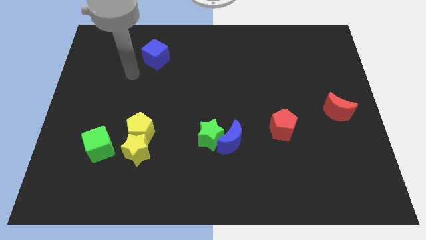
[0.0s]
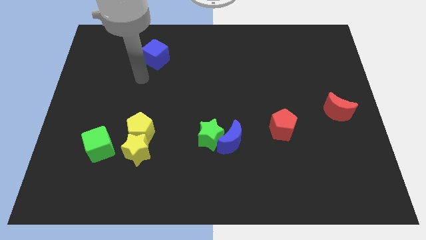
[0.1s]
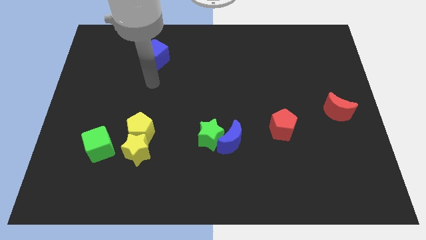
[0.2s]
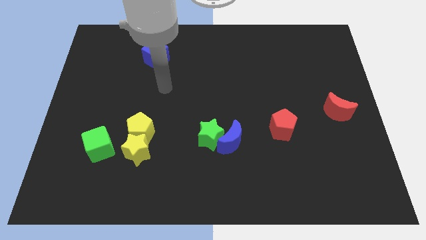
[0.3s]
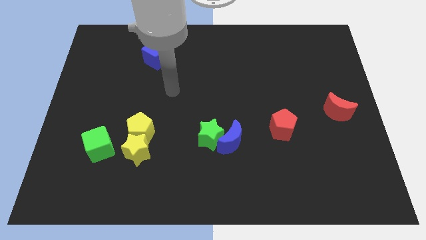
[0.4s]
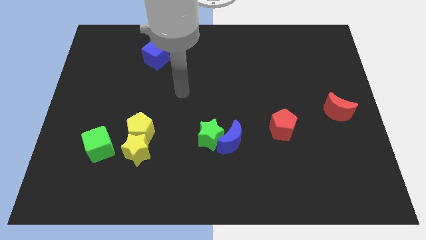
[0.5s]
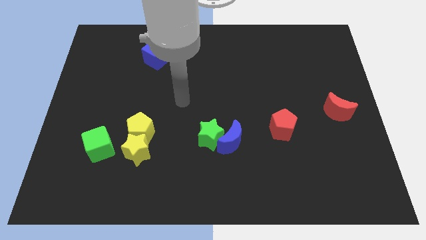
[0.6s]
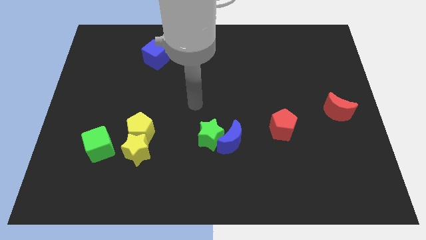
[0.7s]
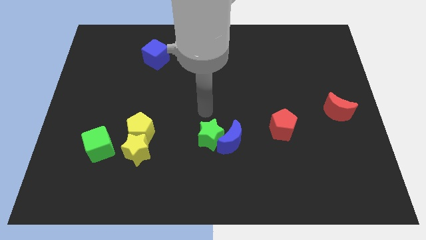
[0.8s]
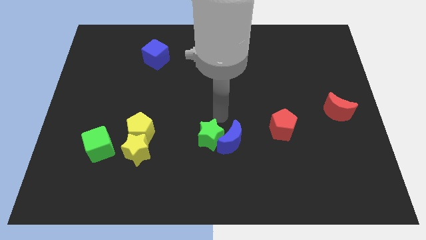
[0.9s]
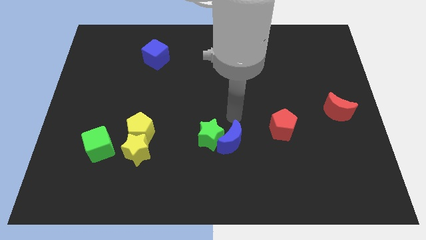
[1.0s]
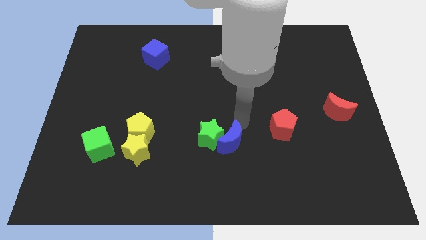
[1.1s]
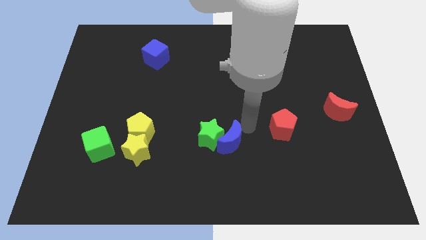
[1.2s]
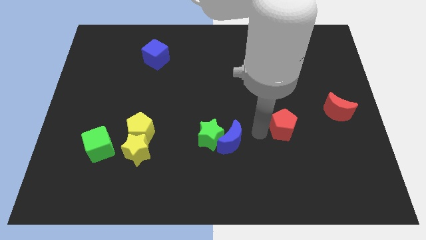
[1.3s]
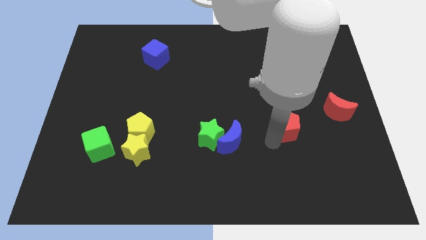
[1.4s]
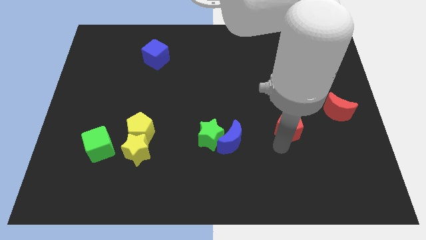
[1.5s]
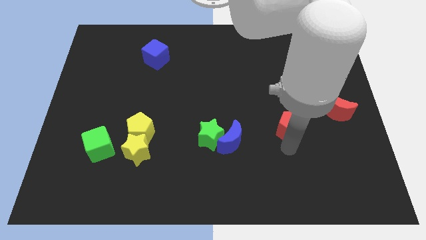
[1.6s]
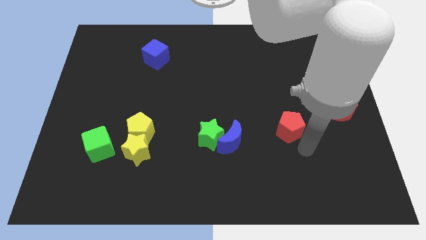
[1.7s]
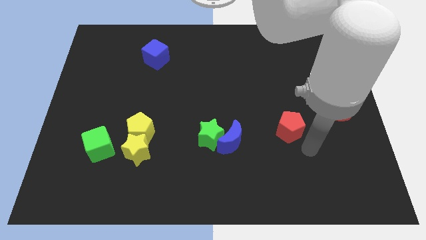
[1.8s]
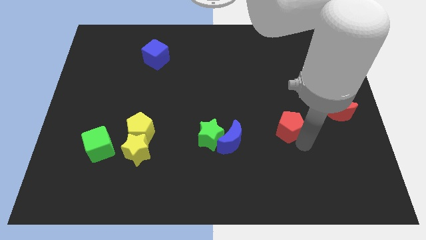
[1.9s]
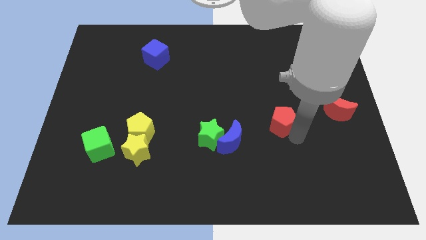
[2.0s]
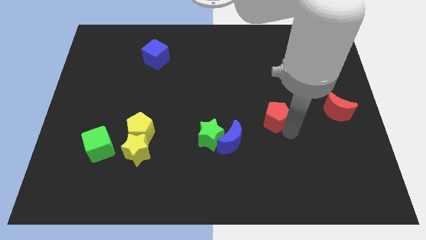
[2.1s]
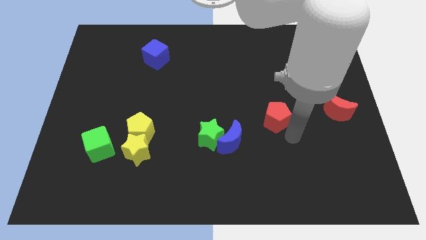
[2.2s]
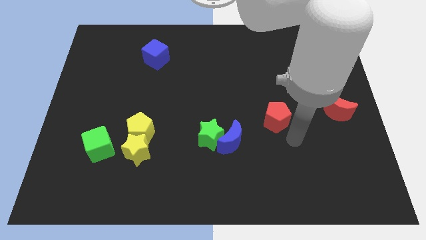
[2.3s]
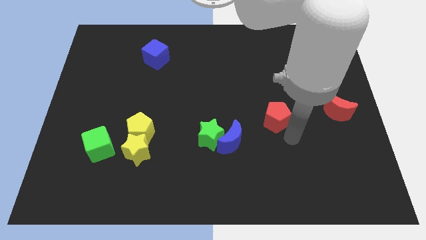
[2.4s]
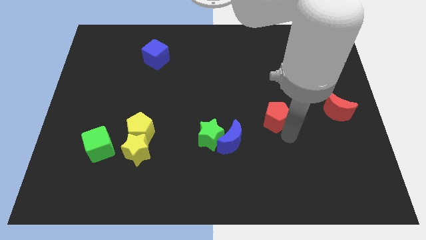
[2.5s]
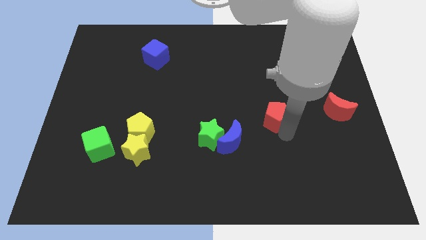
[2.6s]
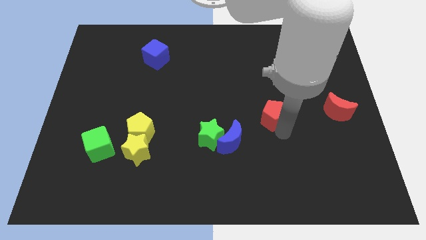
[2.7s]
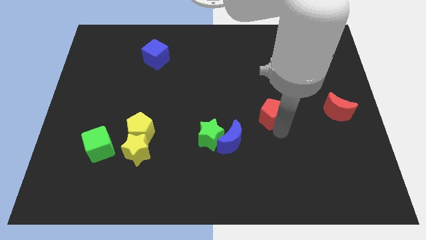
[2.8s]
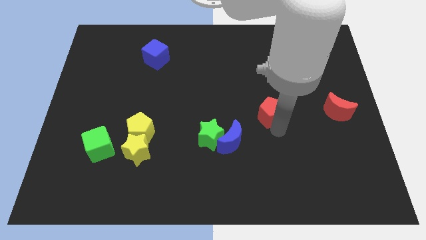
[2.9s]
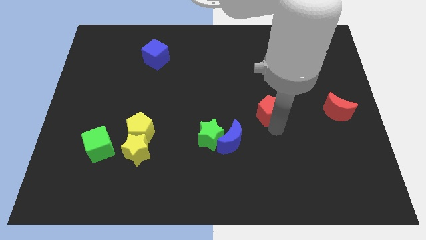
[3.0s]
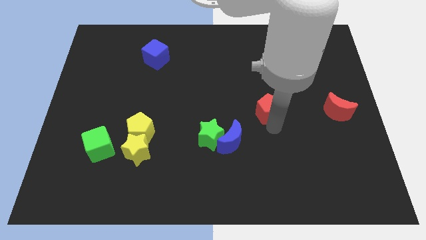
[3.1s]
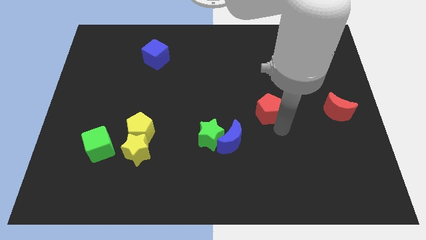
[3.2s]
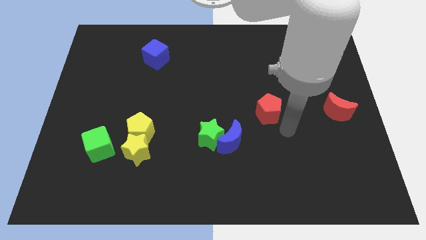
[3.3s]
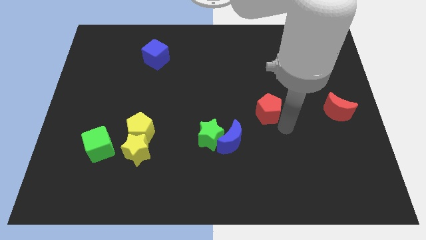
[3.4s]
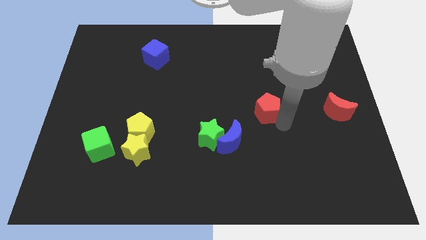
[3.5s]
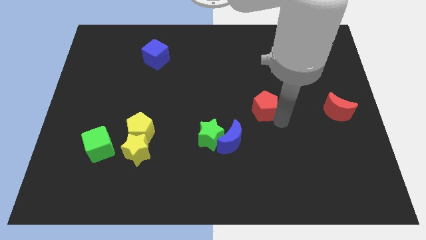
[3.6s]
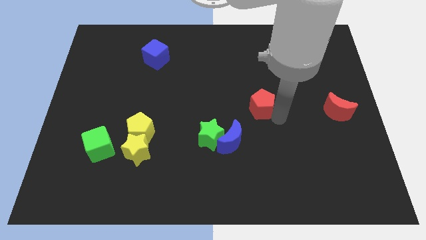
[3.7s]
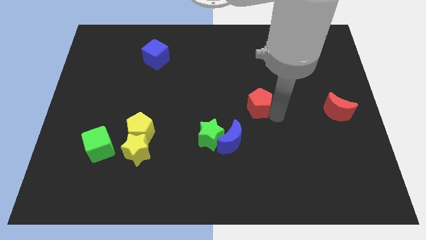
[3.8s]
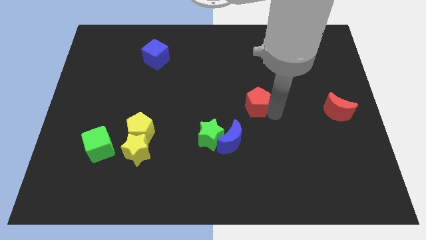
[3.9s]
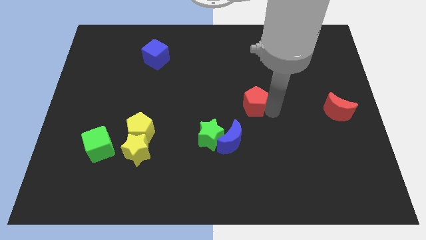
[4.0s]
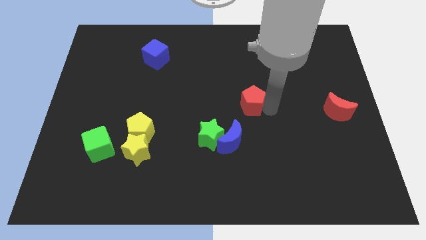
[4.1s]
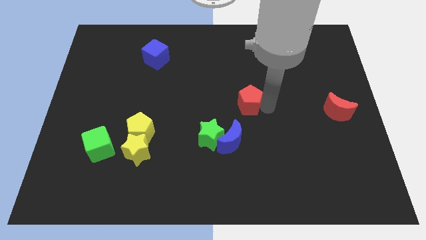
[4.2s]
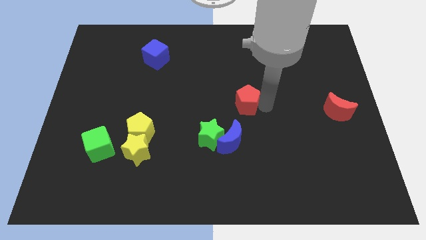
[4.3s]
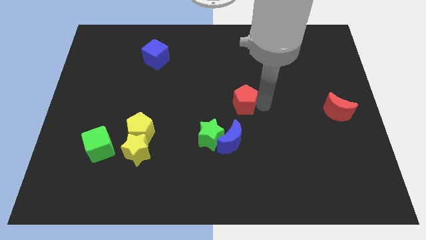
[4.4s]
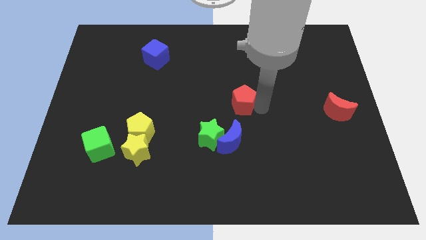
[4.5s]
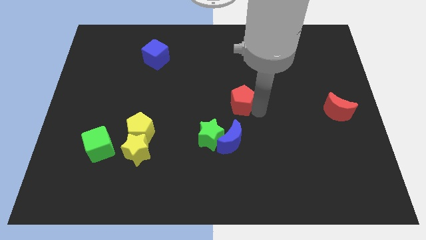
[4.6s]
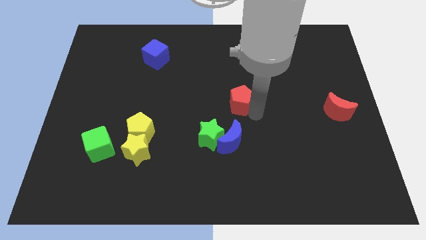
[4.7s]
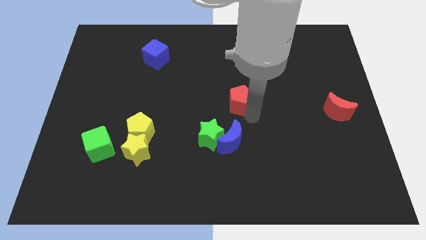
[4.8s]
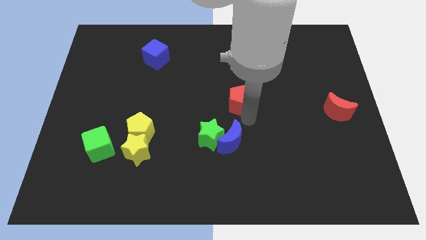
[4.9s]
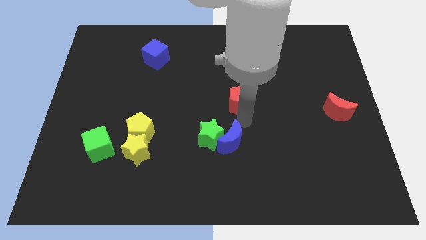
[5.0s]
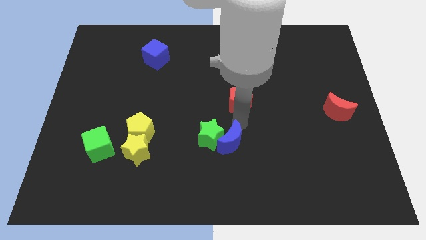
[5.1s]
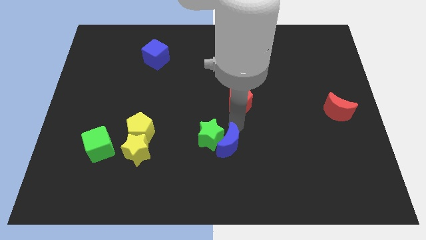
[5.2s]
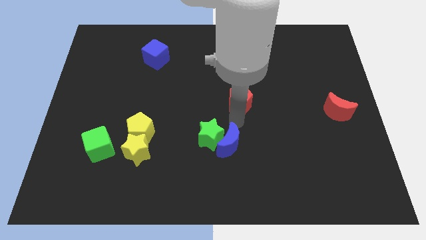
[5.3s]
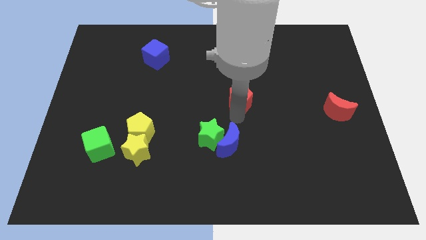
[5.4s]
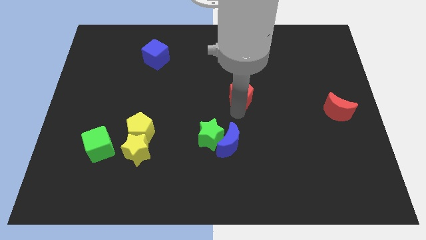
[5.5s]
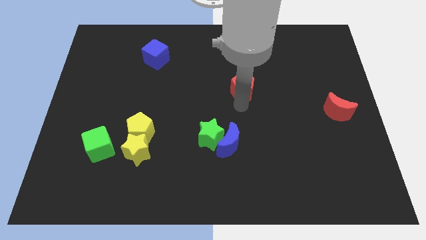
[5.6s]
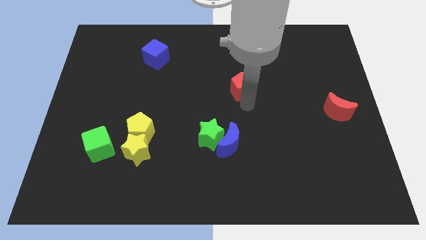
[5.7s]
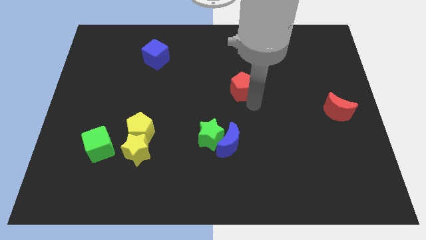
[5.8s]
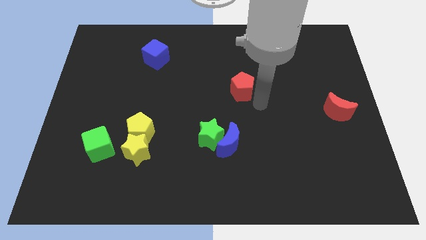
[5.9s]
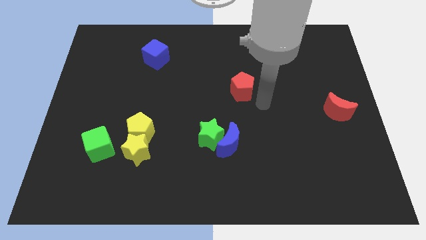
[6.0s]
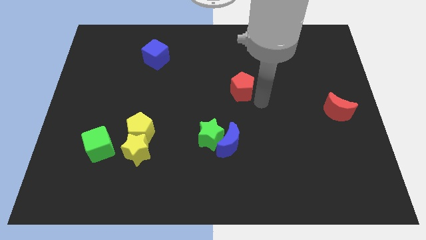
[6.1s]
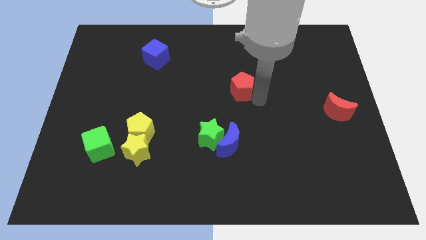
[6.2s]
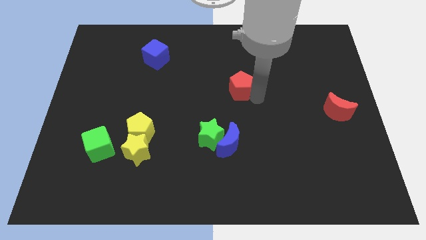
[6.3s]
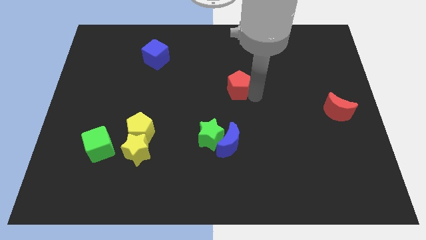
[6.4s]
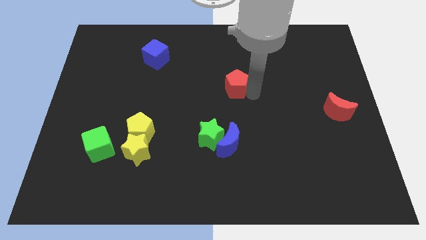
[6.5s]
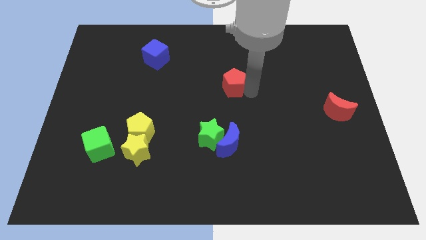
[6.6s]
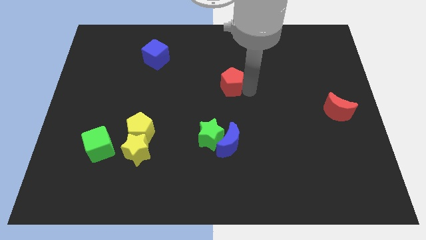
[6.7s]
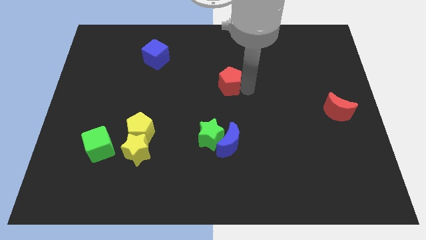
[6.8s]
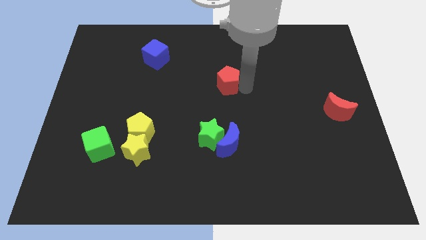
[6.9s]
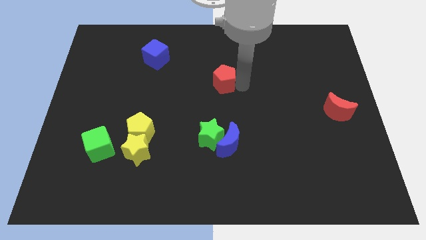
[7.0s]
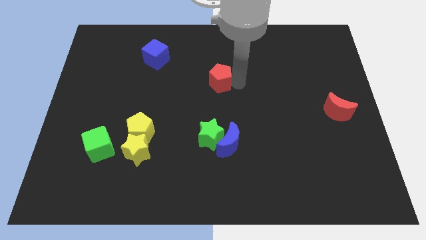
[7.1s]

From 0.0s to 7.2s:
push the red pentagon diagonally upwards and left

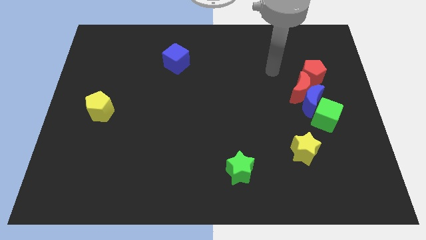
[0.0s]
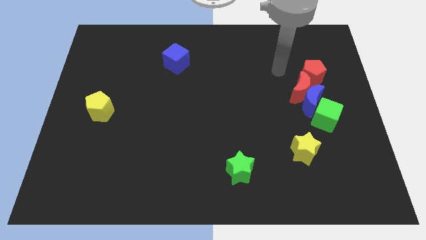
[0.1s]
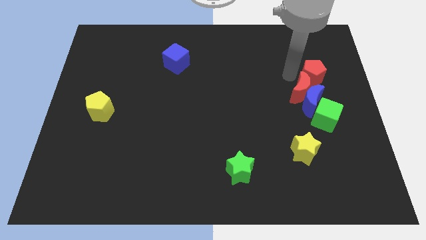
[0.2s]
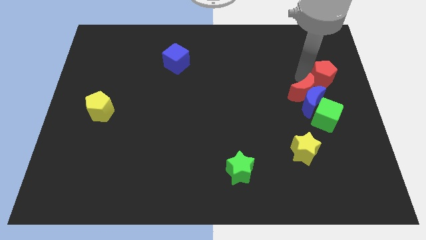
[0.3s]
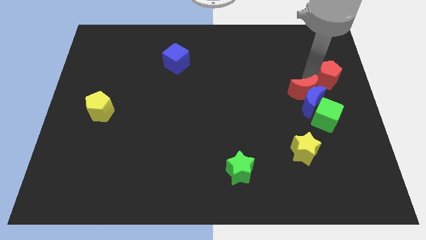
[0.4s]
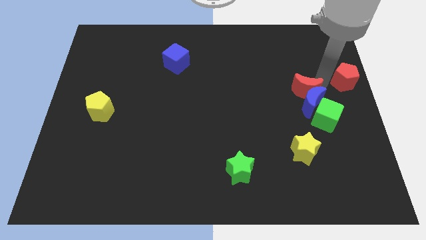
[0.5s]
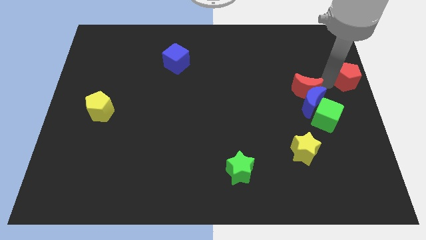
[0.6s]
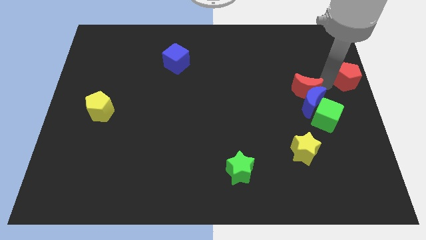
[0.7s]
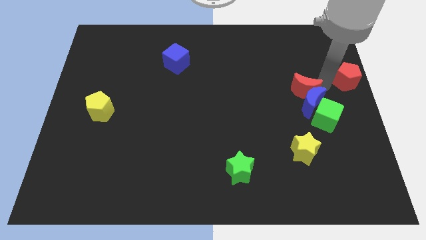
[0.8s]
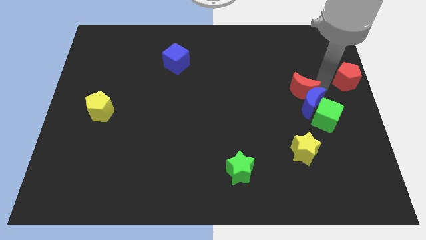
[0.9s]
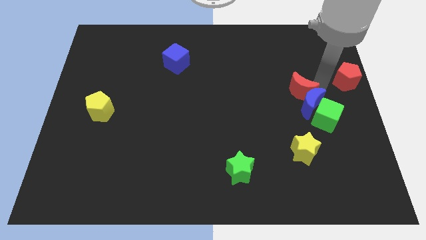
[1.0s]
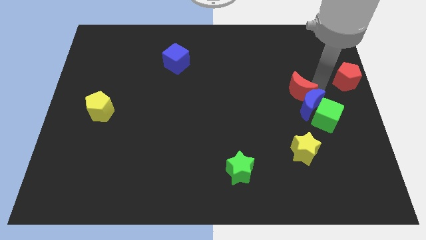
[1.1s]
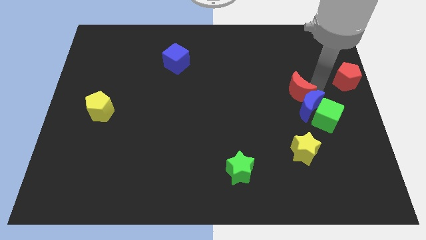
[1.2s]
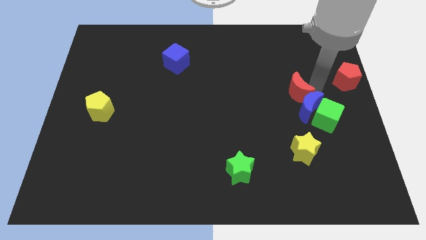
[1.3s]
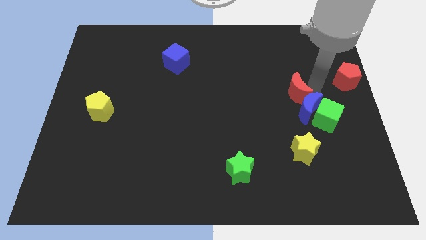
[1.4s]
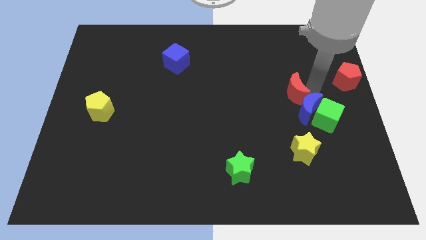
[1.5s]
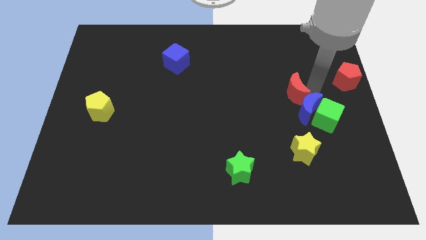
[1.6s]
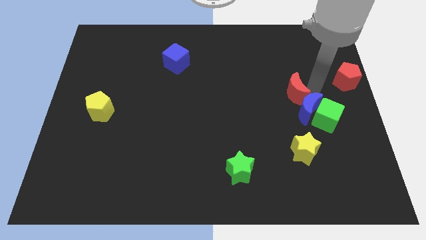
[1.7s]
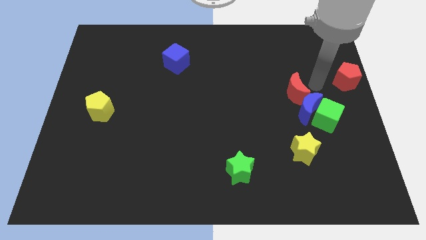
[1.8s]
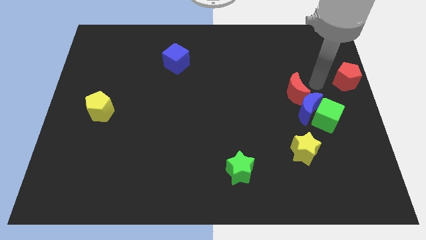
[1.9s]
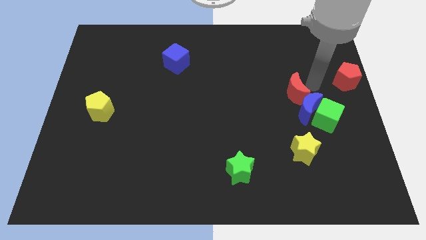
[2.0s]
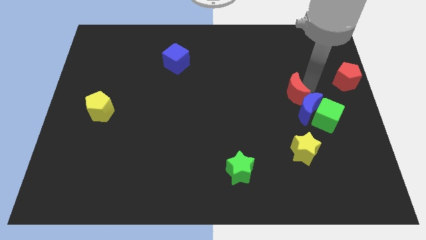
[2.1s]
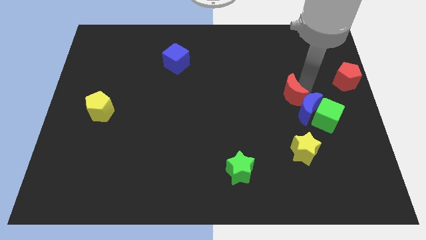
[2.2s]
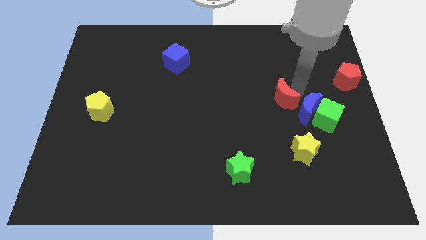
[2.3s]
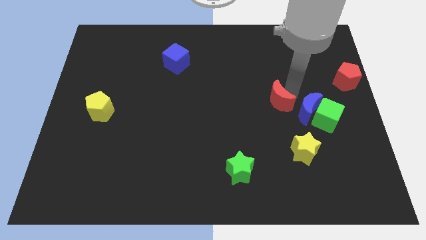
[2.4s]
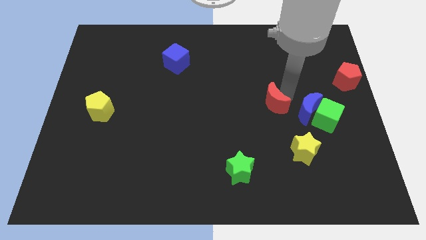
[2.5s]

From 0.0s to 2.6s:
push the red moon a little bit diagonally downwards and to the left
